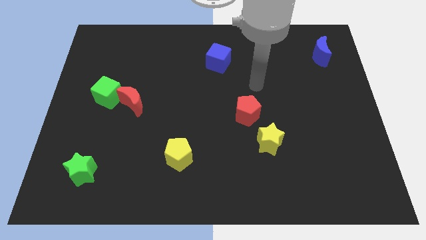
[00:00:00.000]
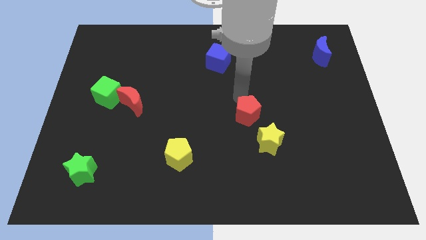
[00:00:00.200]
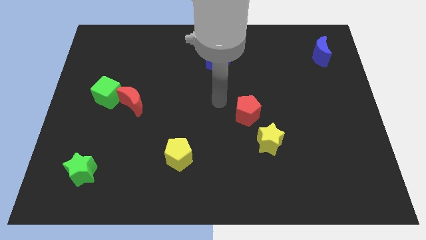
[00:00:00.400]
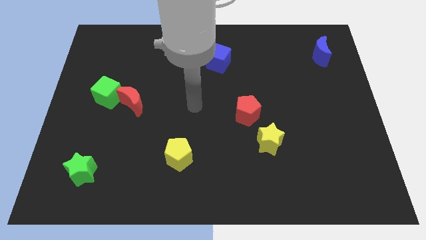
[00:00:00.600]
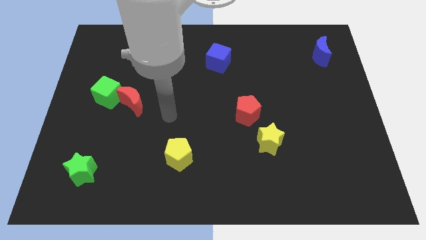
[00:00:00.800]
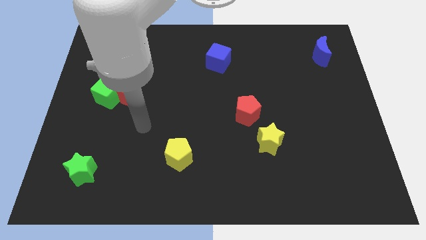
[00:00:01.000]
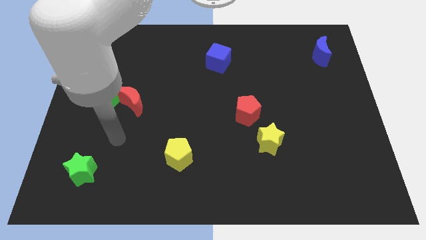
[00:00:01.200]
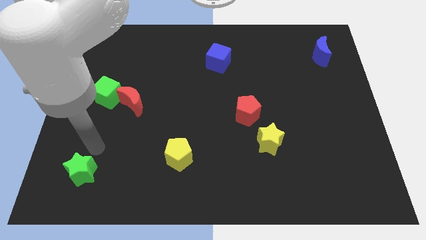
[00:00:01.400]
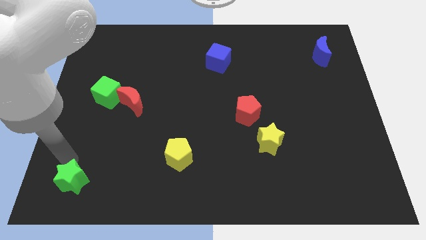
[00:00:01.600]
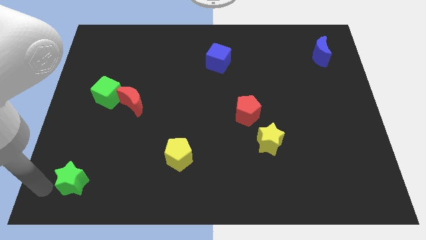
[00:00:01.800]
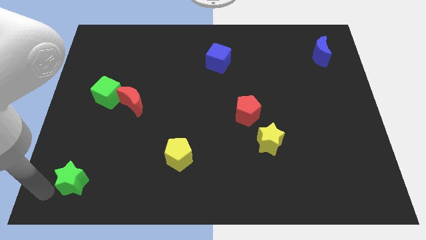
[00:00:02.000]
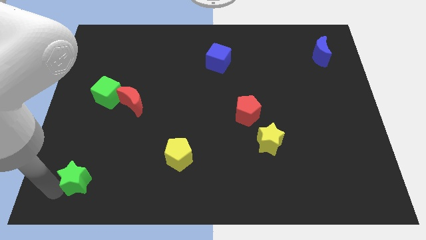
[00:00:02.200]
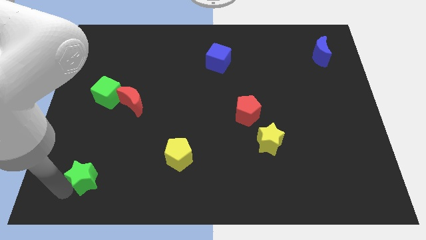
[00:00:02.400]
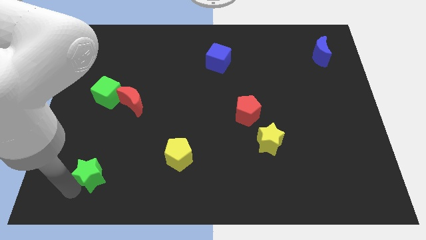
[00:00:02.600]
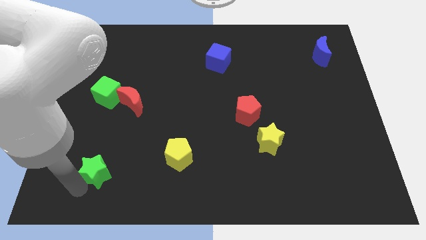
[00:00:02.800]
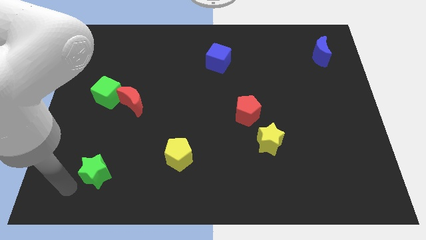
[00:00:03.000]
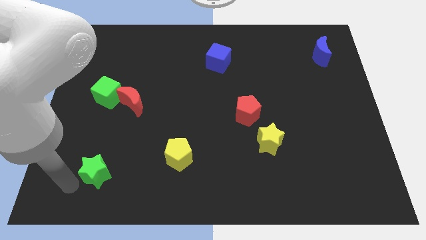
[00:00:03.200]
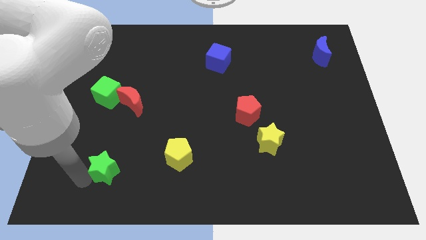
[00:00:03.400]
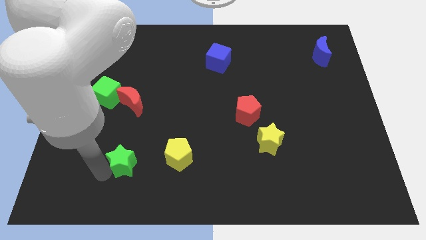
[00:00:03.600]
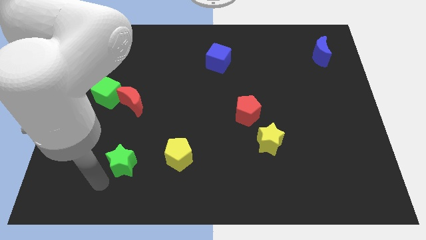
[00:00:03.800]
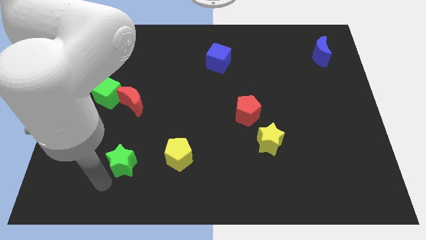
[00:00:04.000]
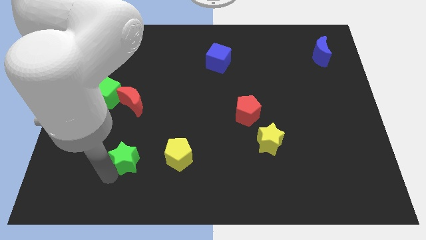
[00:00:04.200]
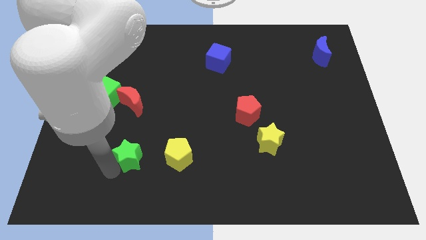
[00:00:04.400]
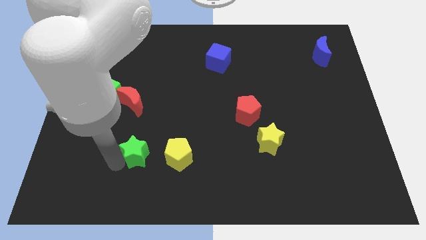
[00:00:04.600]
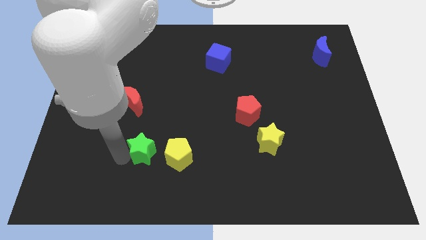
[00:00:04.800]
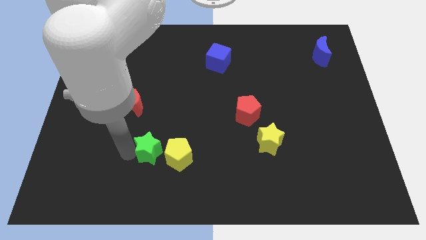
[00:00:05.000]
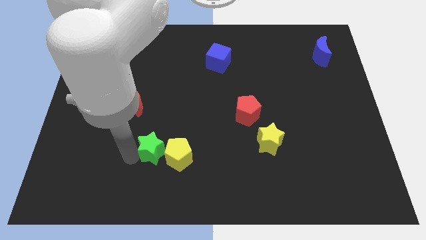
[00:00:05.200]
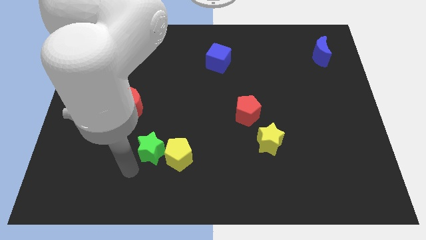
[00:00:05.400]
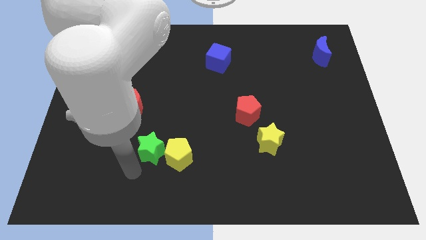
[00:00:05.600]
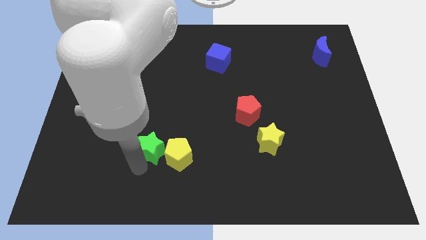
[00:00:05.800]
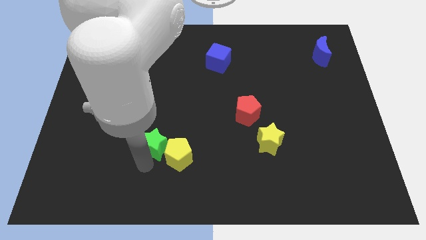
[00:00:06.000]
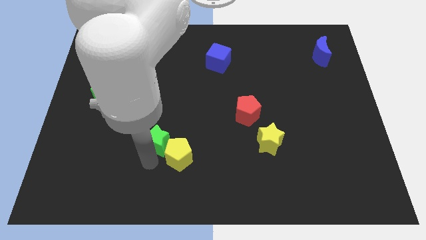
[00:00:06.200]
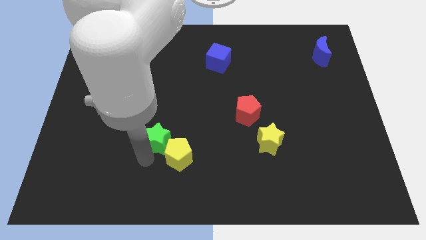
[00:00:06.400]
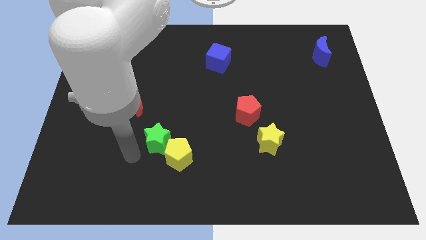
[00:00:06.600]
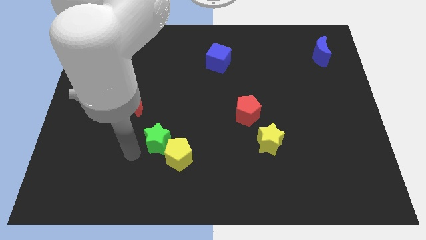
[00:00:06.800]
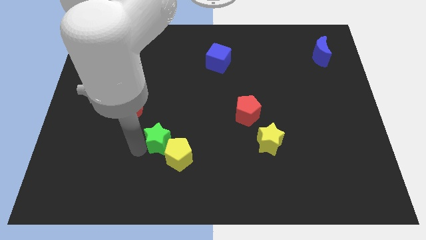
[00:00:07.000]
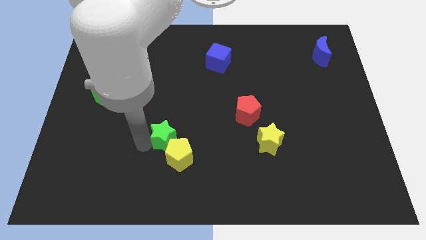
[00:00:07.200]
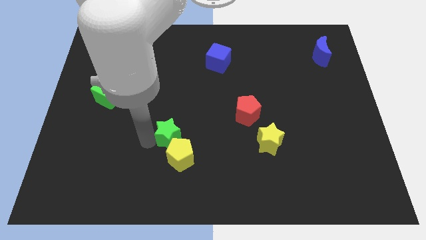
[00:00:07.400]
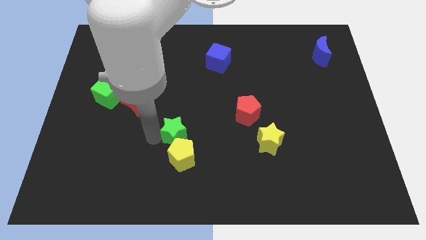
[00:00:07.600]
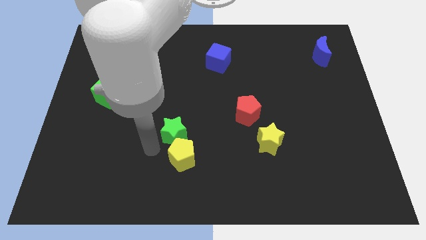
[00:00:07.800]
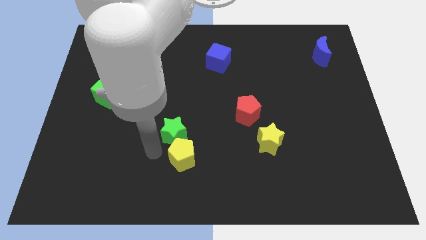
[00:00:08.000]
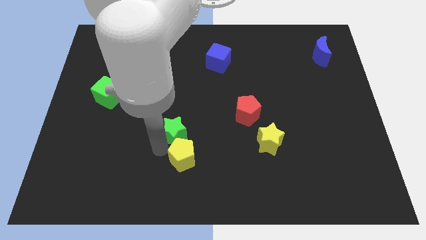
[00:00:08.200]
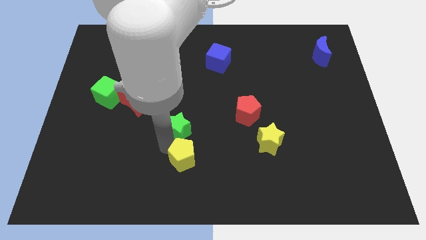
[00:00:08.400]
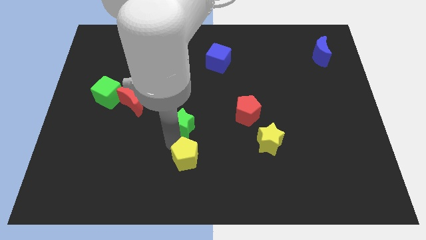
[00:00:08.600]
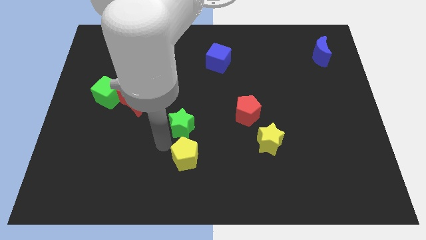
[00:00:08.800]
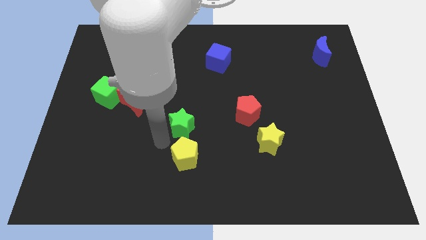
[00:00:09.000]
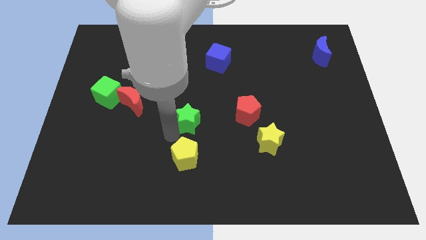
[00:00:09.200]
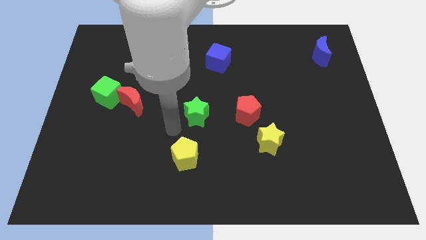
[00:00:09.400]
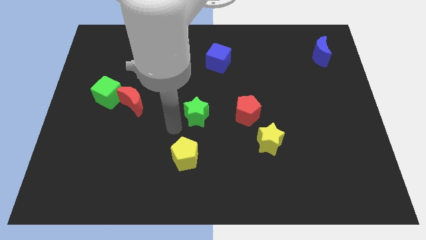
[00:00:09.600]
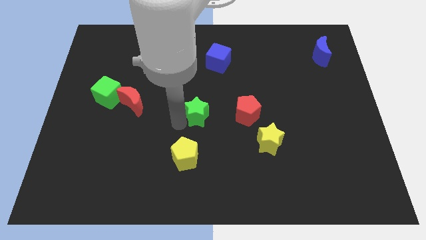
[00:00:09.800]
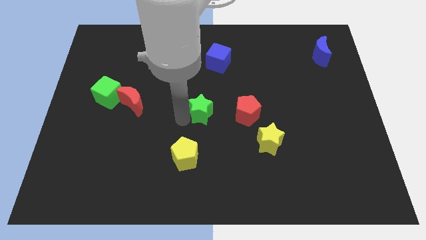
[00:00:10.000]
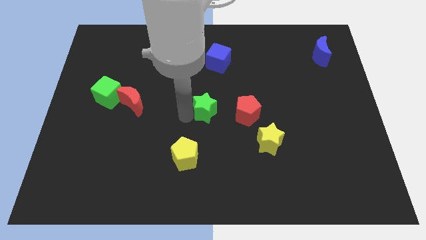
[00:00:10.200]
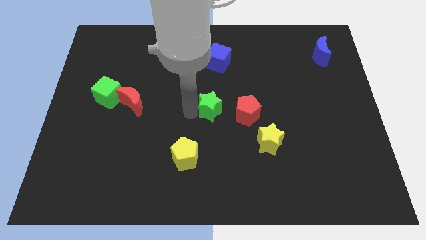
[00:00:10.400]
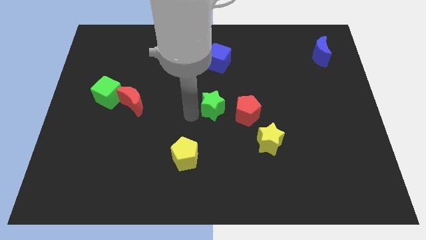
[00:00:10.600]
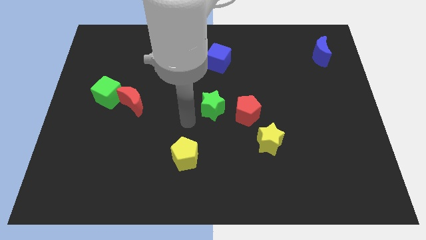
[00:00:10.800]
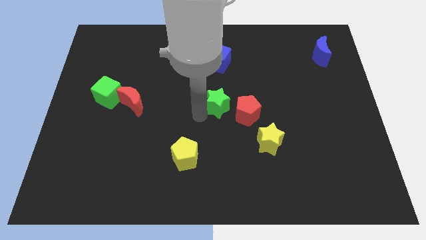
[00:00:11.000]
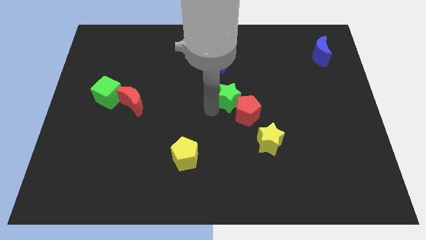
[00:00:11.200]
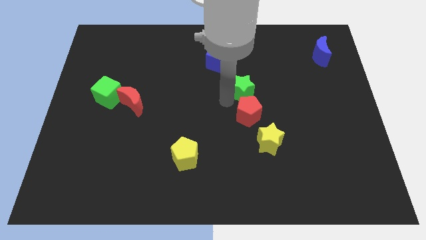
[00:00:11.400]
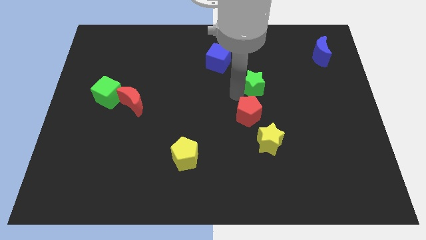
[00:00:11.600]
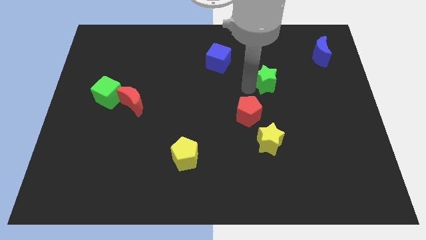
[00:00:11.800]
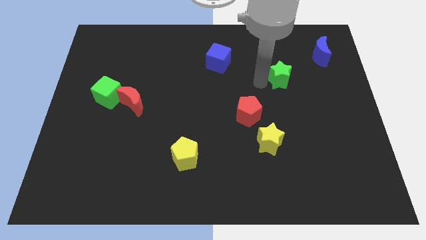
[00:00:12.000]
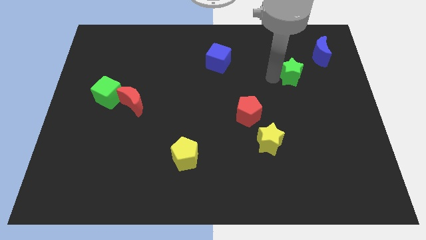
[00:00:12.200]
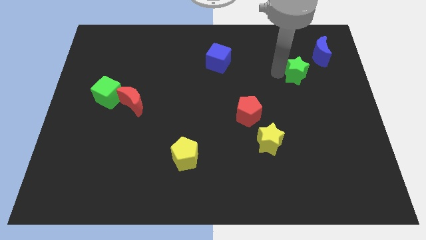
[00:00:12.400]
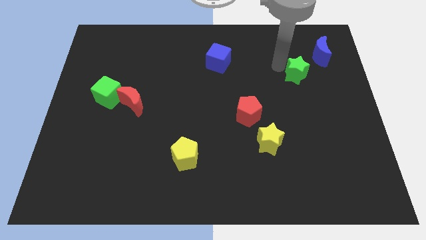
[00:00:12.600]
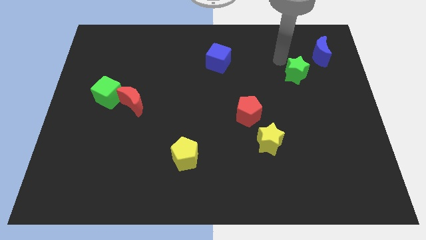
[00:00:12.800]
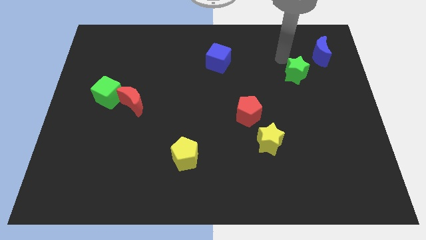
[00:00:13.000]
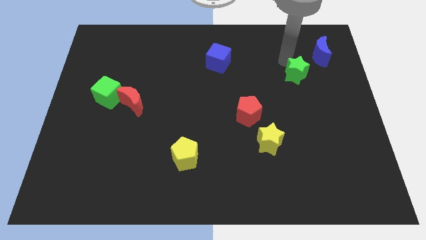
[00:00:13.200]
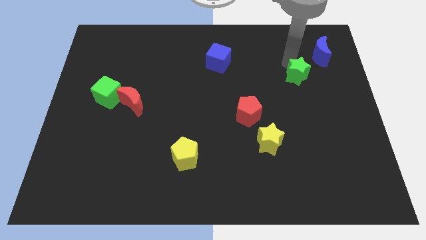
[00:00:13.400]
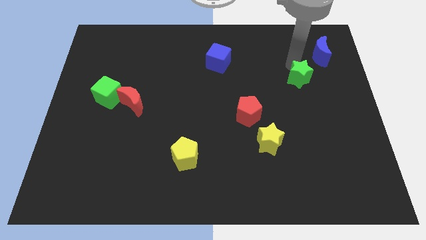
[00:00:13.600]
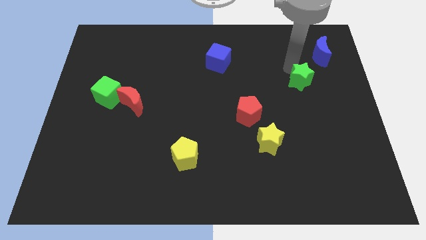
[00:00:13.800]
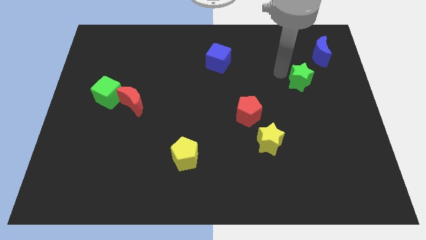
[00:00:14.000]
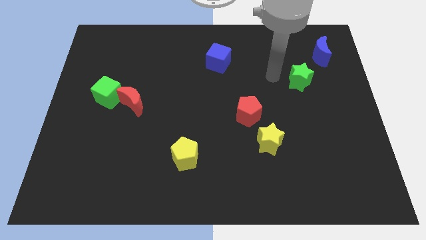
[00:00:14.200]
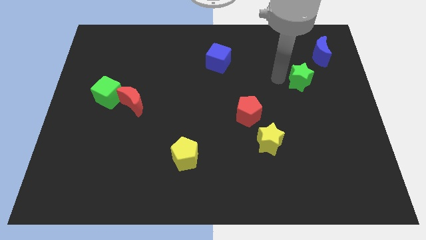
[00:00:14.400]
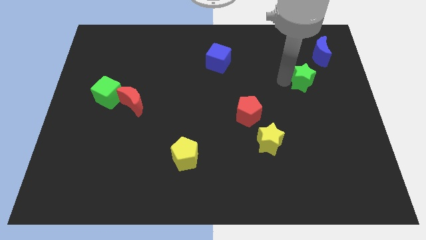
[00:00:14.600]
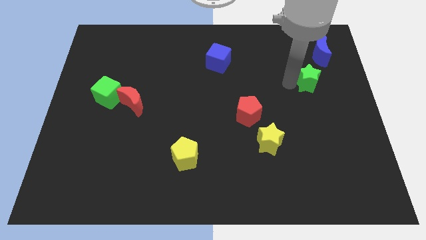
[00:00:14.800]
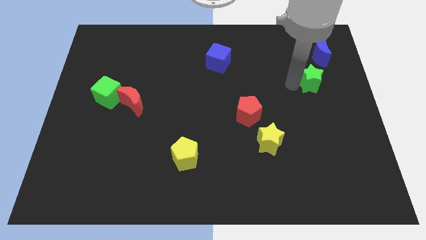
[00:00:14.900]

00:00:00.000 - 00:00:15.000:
move the green star to the bottom side of the blue moon
